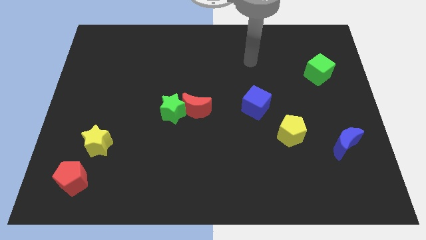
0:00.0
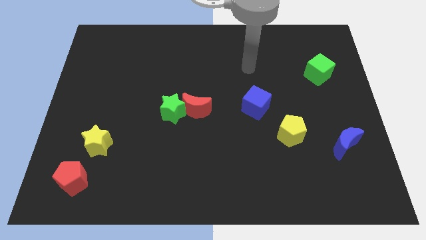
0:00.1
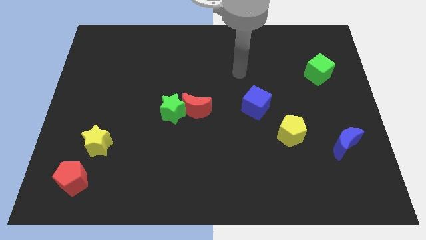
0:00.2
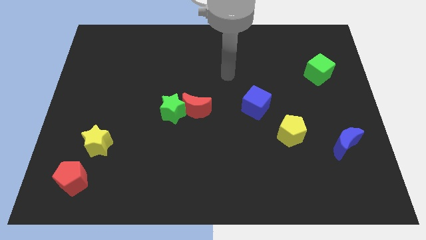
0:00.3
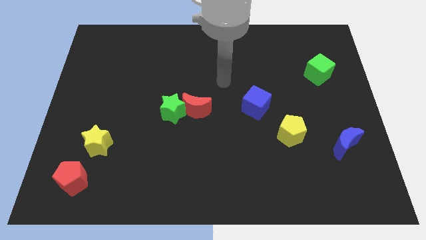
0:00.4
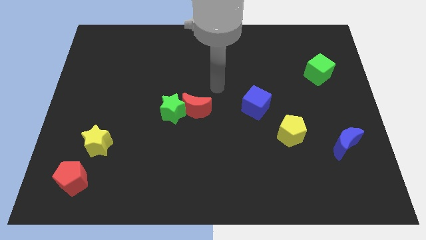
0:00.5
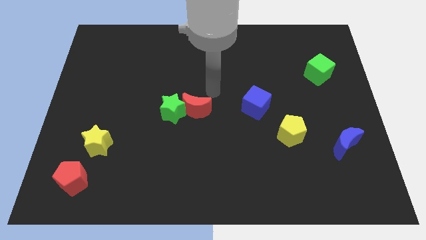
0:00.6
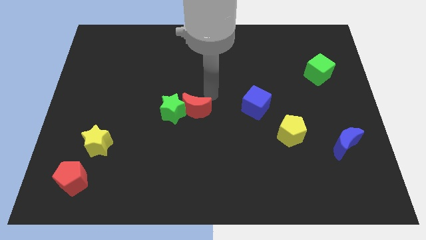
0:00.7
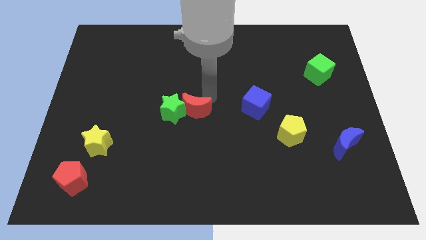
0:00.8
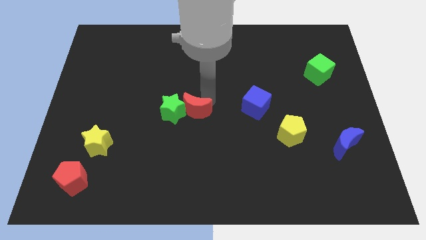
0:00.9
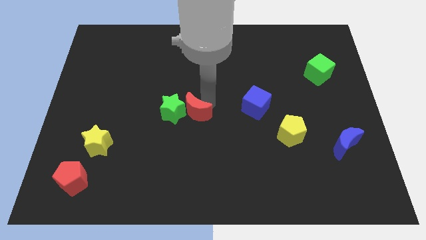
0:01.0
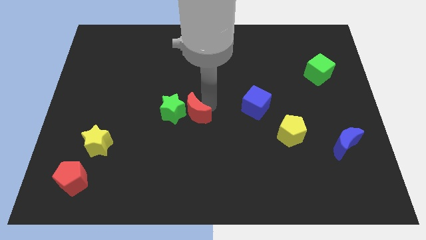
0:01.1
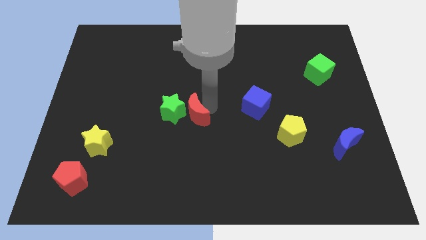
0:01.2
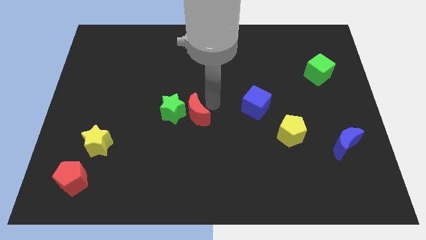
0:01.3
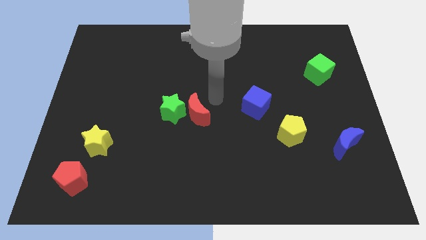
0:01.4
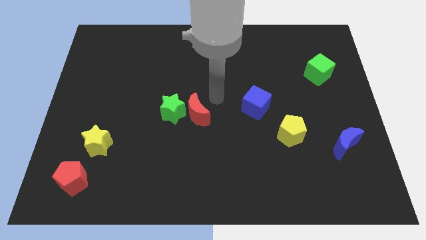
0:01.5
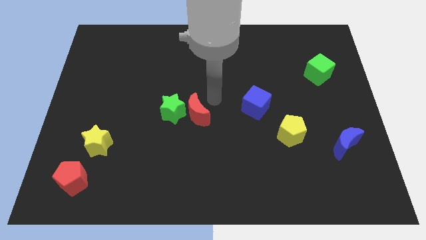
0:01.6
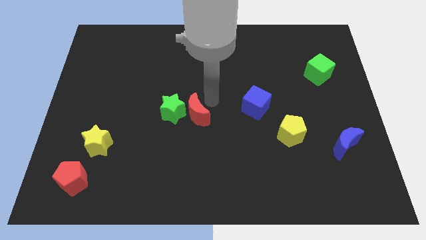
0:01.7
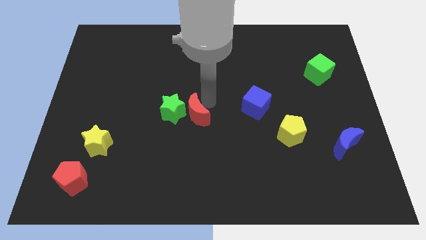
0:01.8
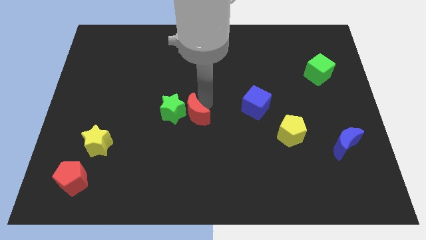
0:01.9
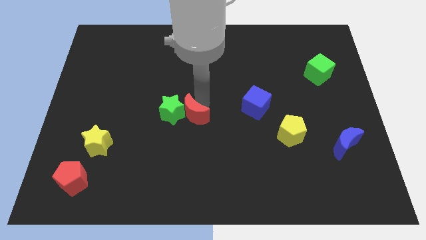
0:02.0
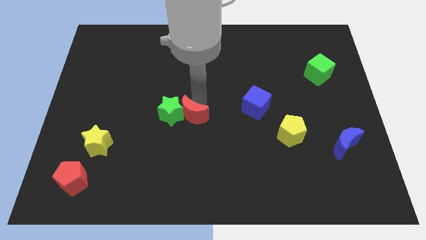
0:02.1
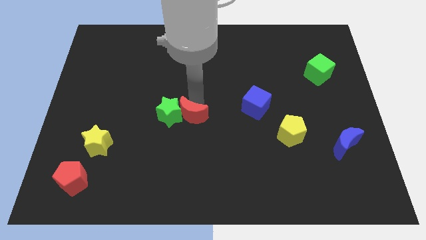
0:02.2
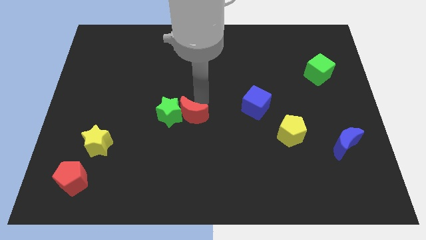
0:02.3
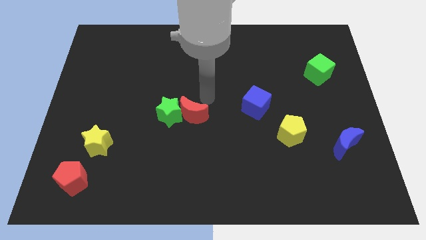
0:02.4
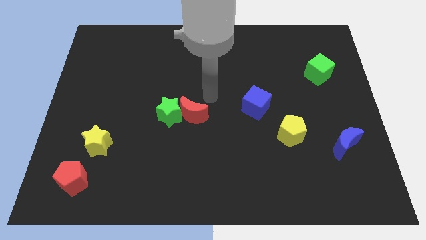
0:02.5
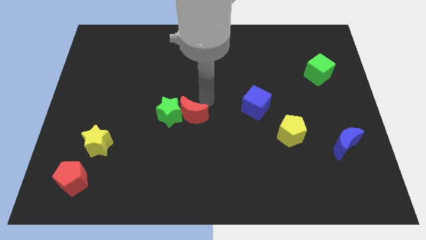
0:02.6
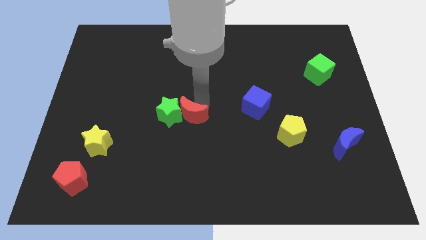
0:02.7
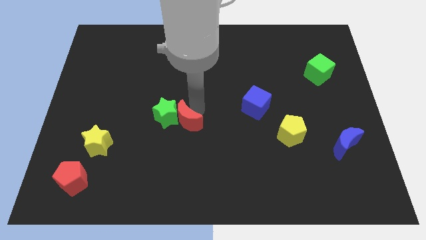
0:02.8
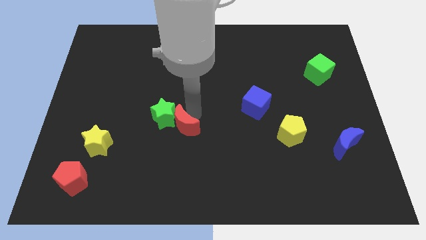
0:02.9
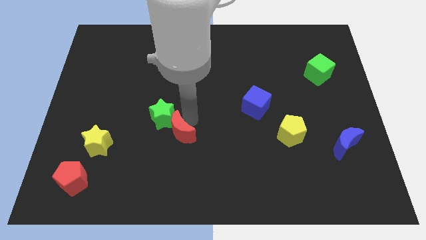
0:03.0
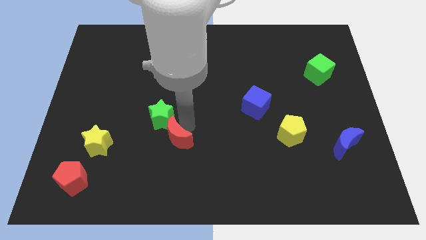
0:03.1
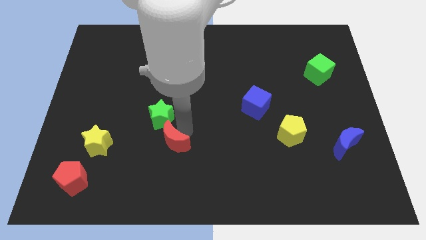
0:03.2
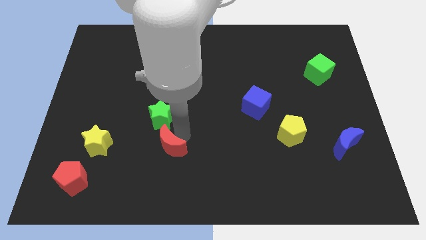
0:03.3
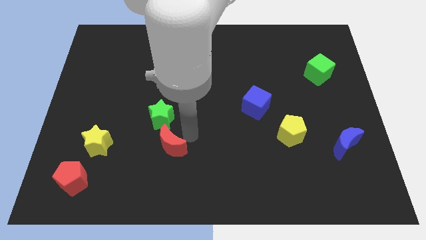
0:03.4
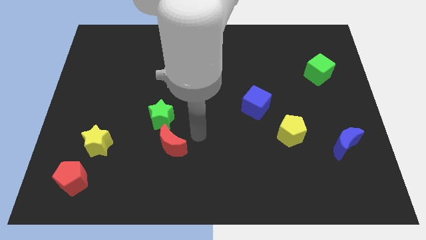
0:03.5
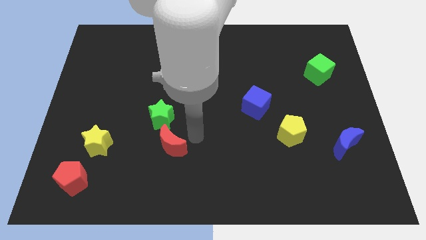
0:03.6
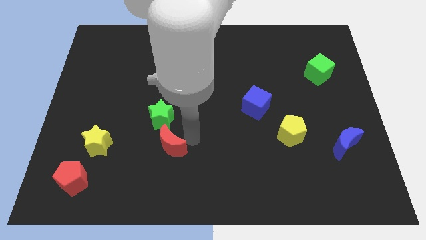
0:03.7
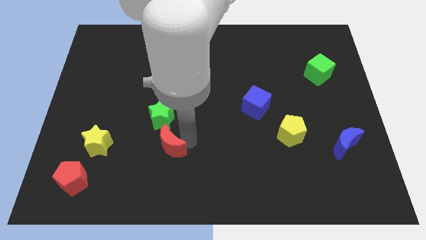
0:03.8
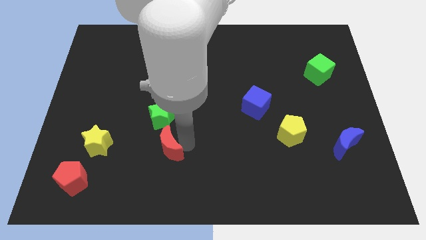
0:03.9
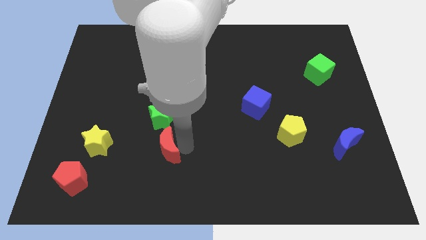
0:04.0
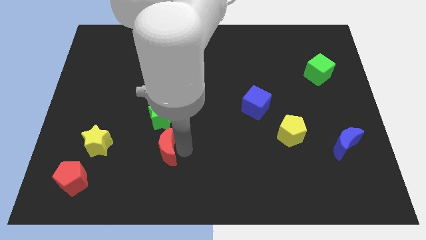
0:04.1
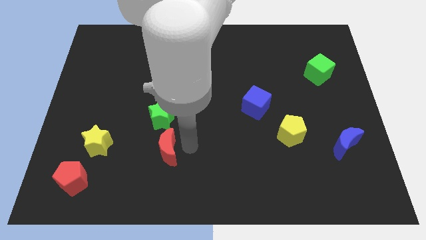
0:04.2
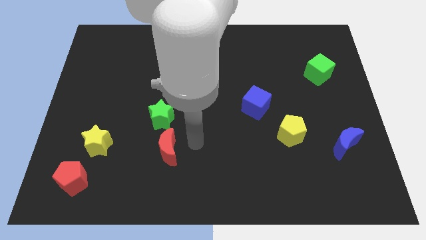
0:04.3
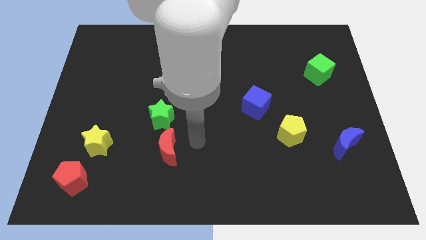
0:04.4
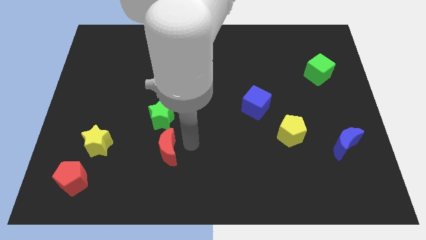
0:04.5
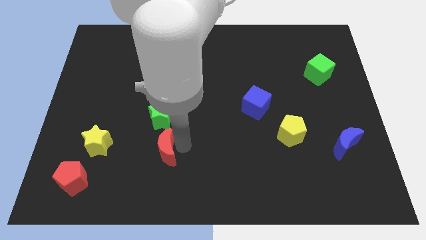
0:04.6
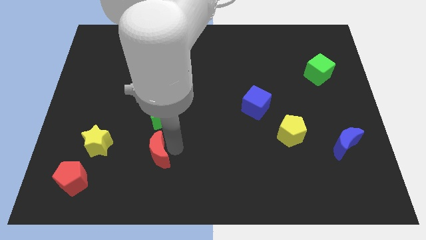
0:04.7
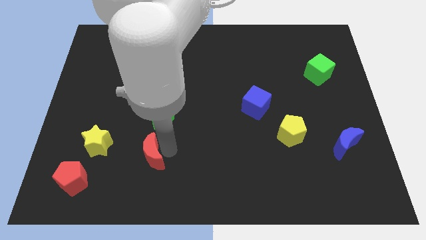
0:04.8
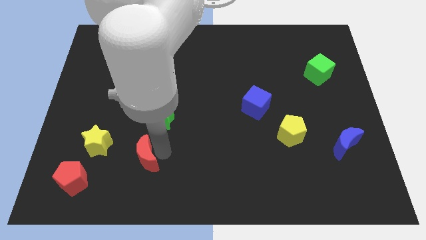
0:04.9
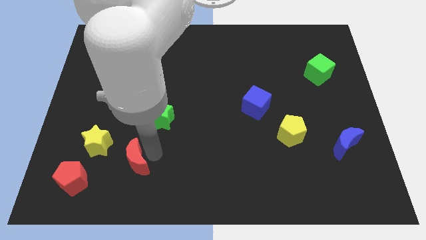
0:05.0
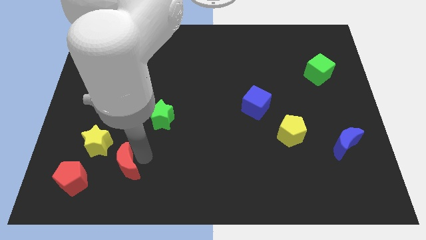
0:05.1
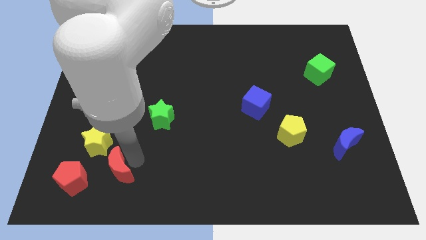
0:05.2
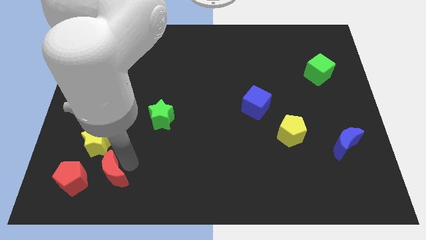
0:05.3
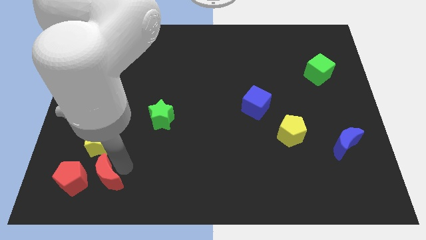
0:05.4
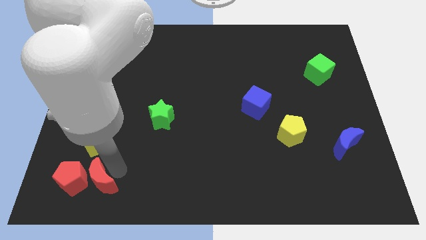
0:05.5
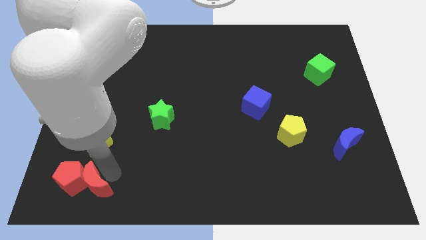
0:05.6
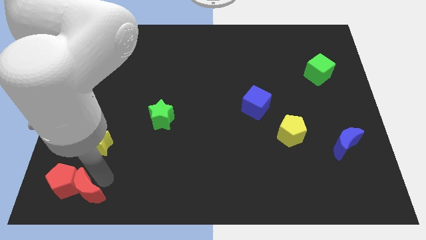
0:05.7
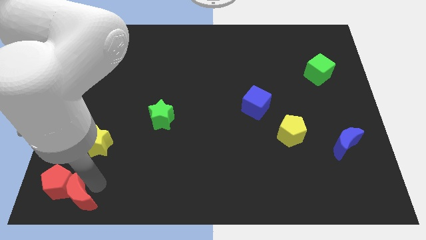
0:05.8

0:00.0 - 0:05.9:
slide the red moon to the bottom left of the board
